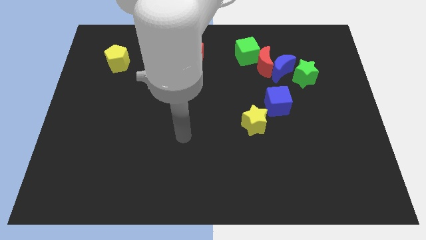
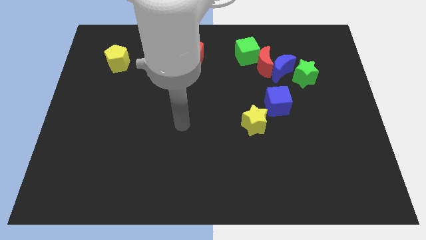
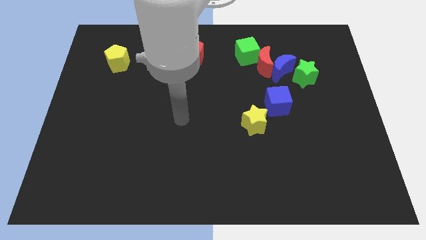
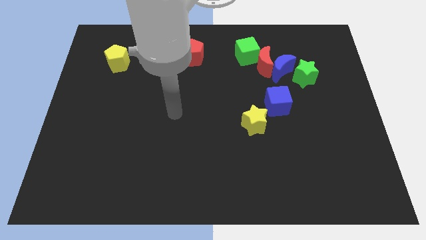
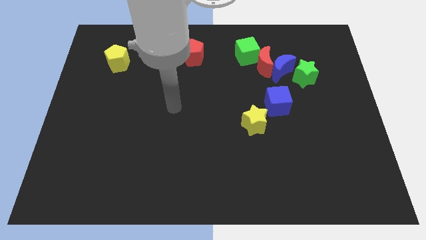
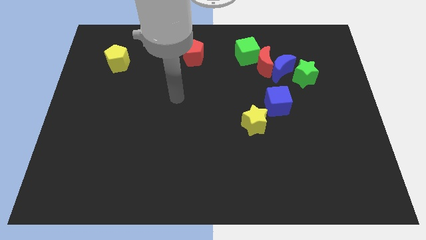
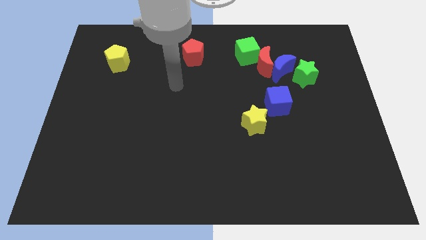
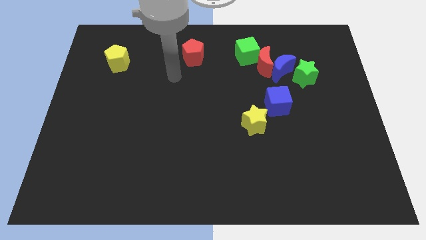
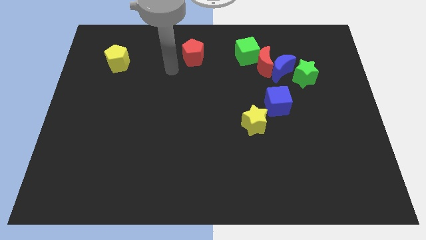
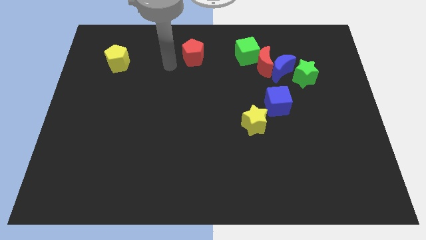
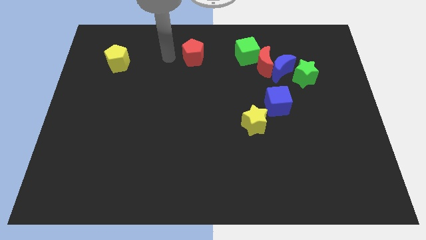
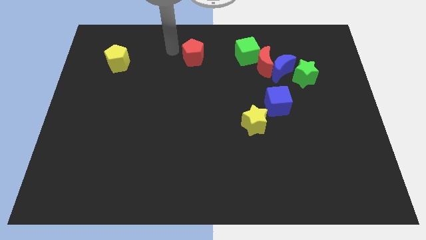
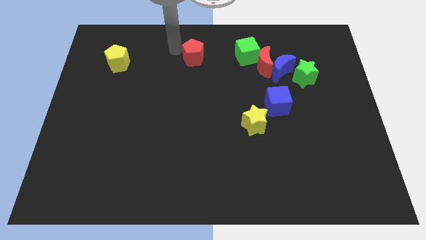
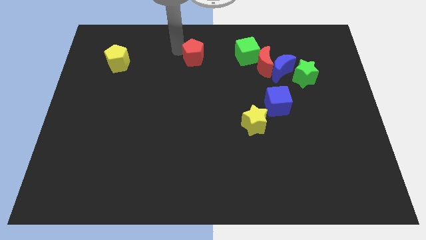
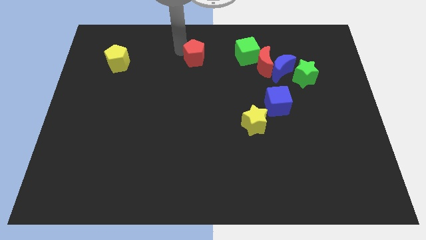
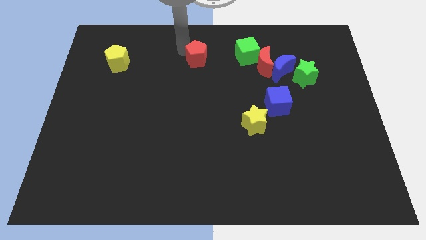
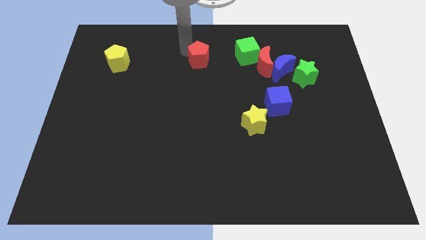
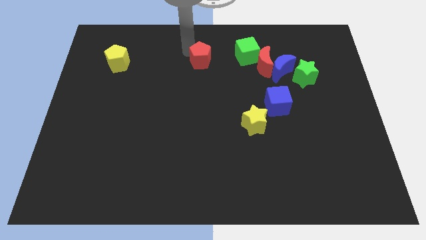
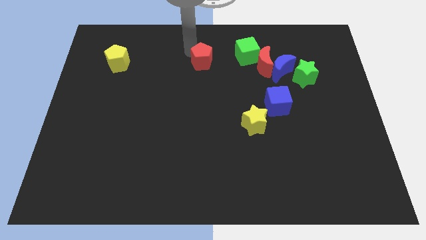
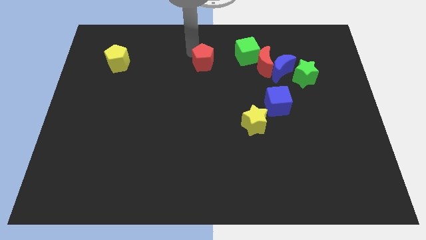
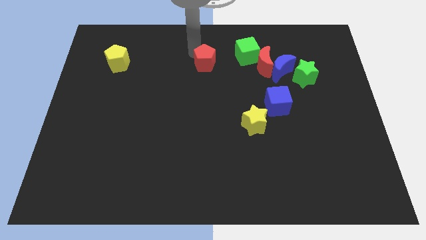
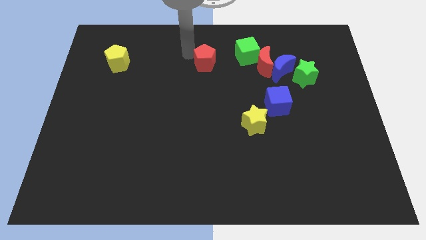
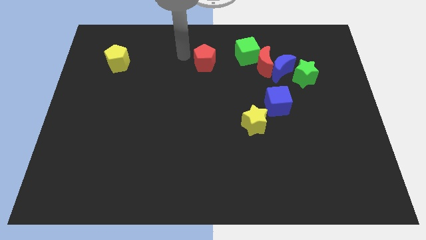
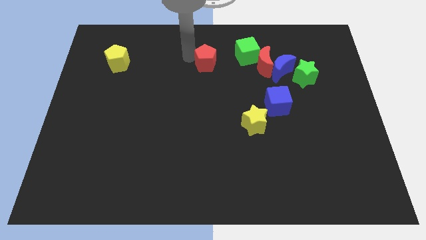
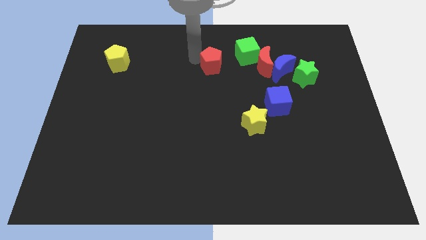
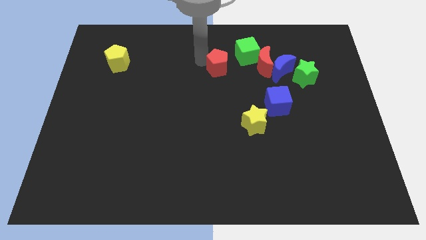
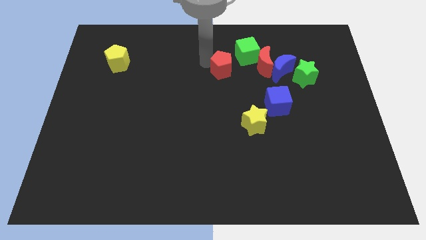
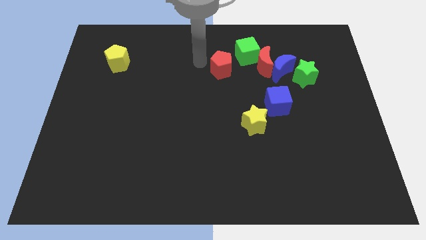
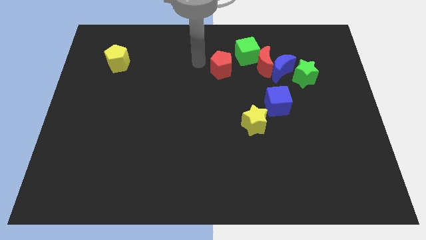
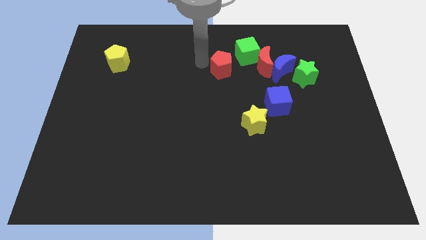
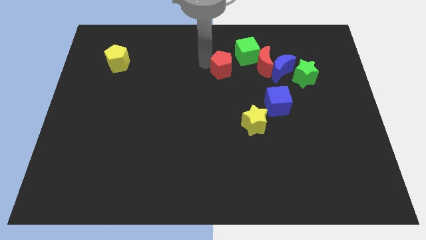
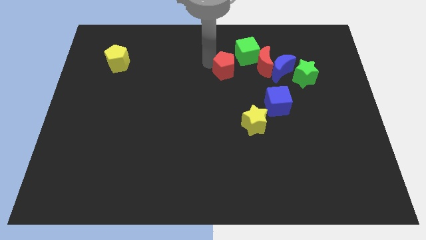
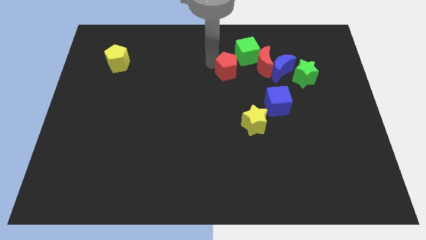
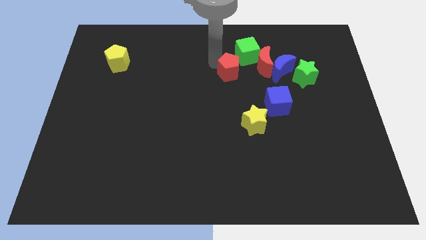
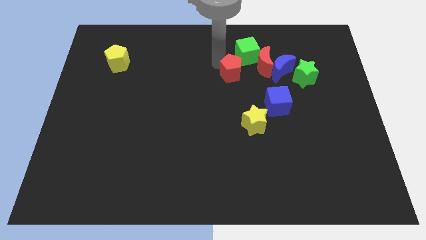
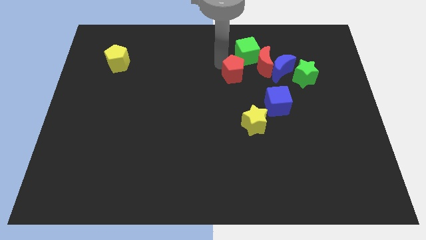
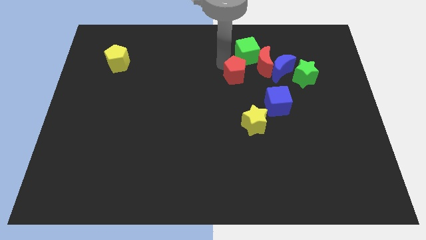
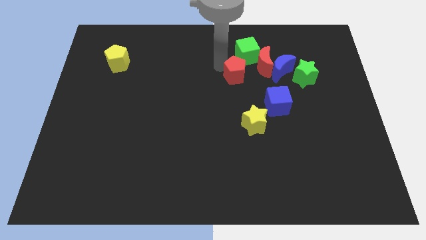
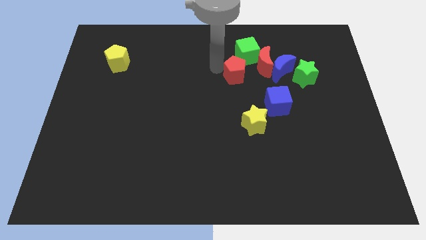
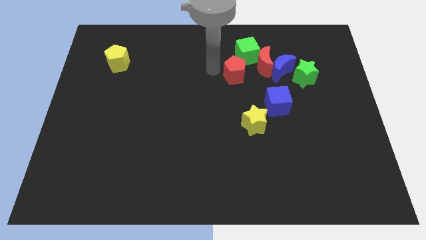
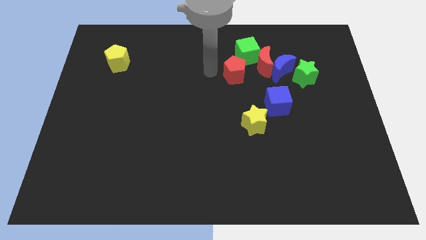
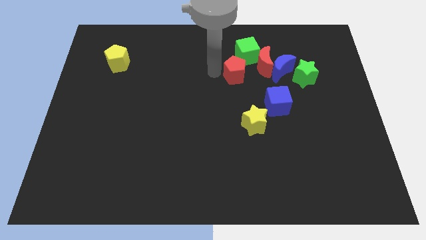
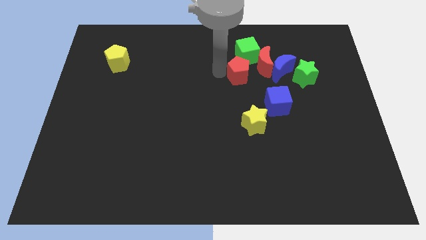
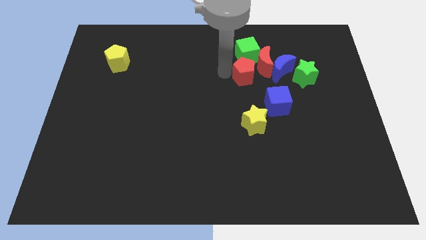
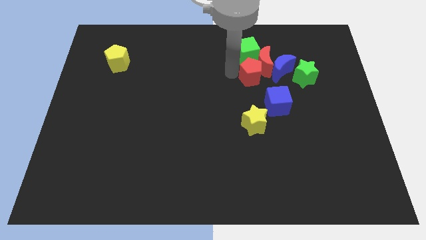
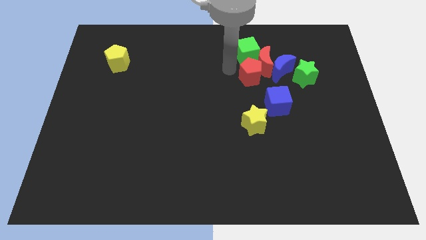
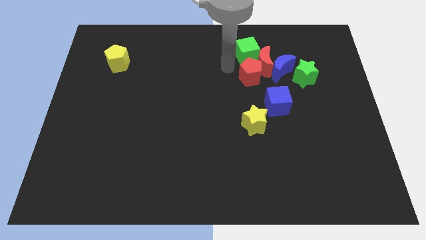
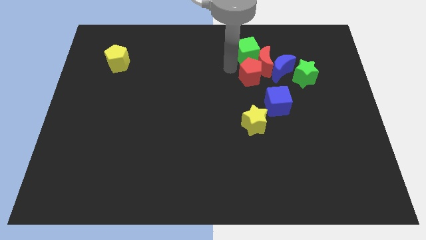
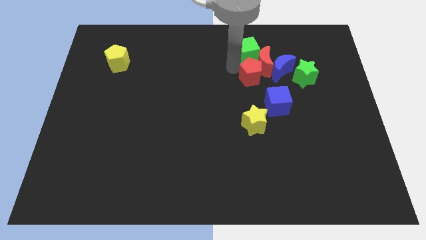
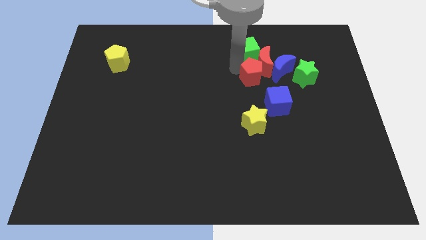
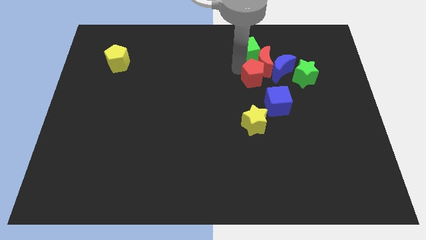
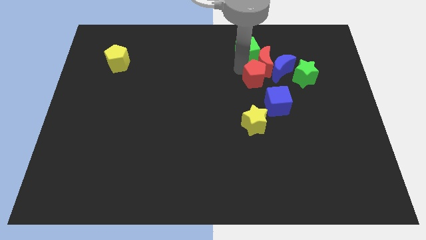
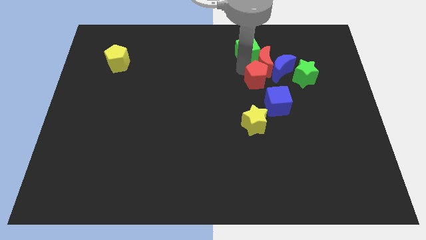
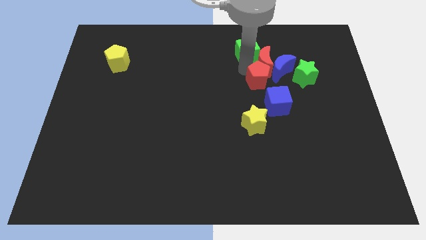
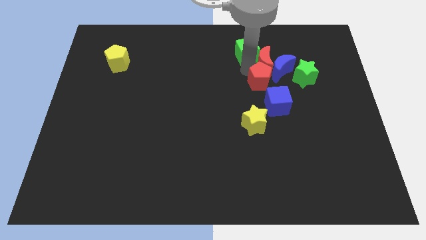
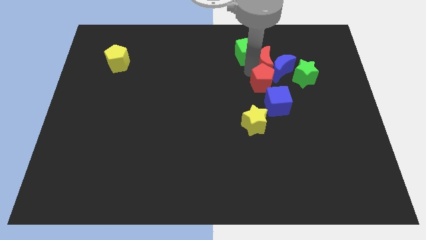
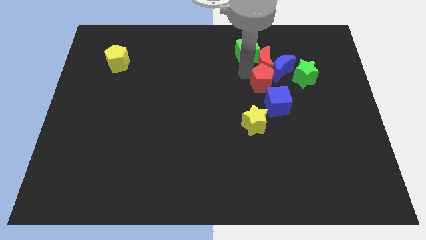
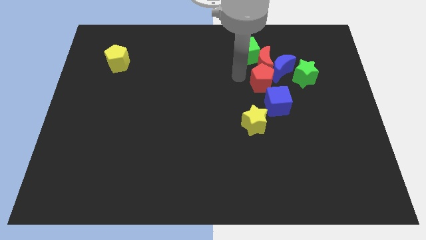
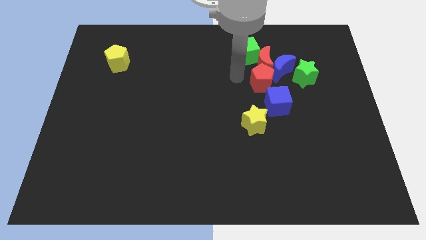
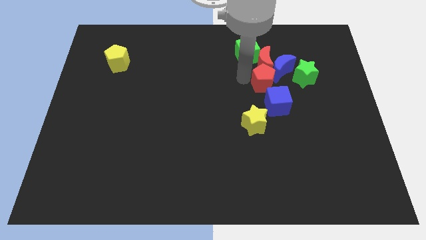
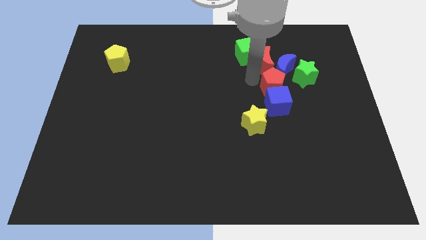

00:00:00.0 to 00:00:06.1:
slide the red pentagon diagonally up and to the right of the blue cube

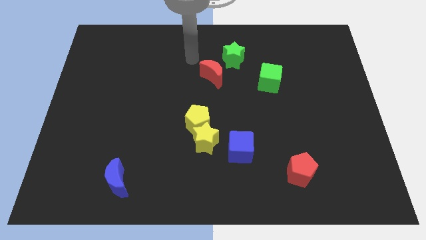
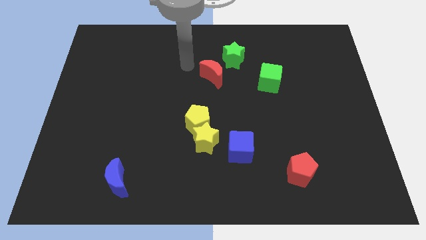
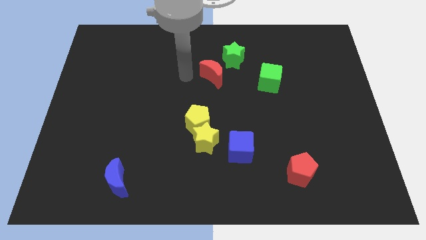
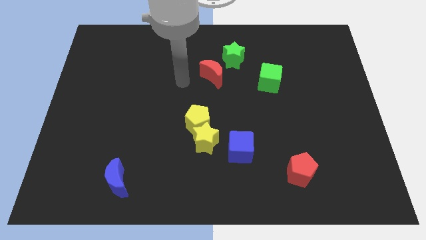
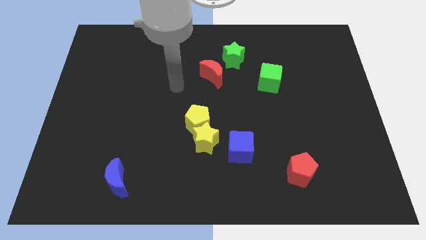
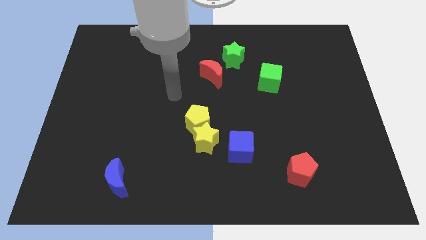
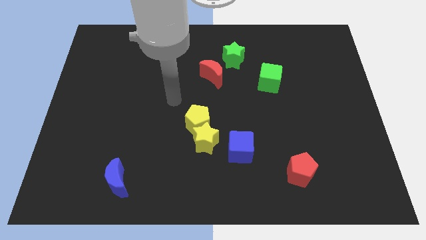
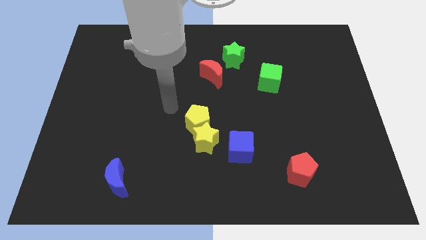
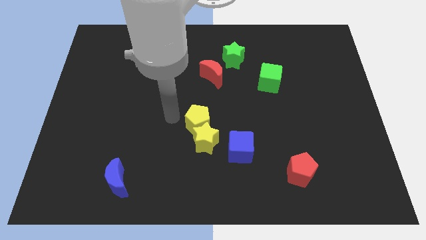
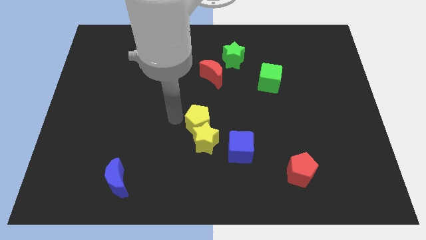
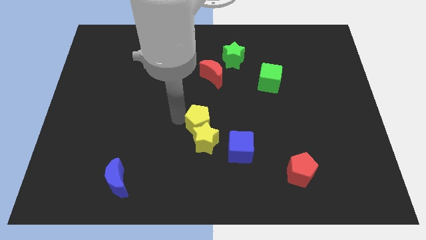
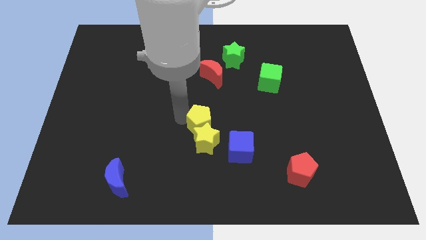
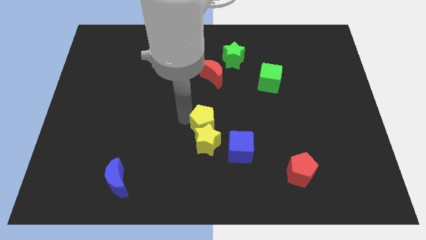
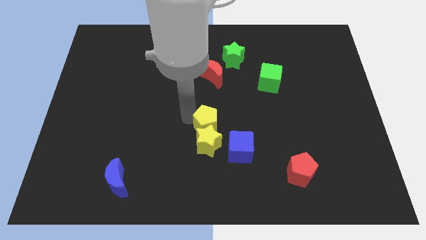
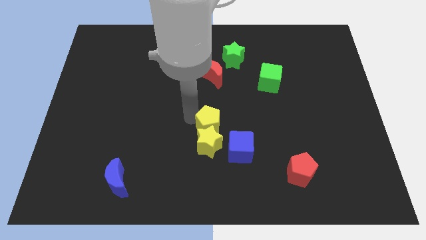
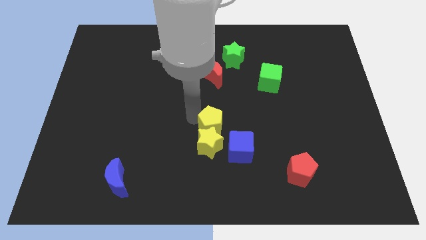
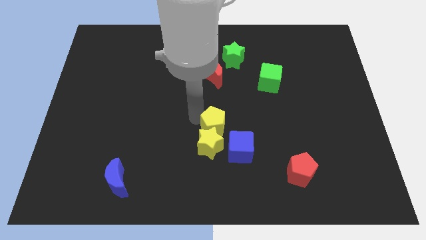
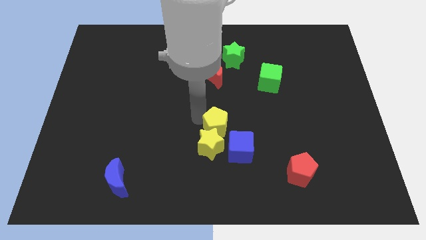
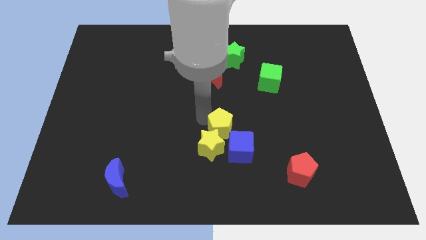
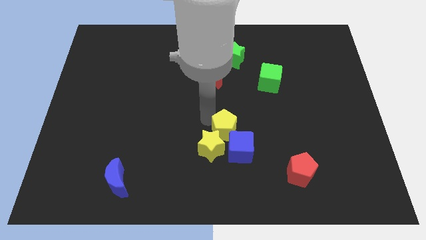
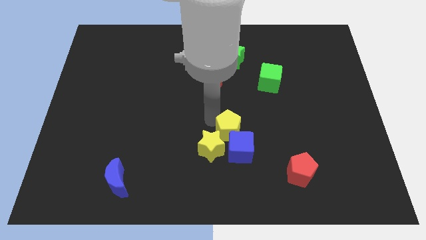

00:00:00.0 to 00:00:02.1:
push the yellow pentagon right of the yellow star
